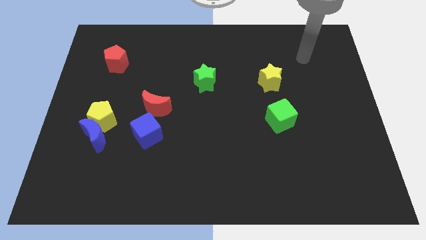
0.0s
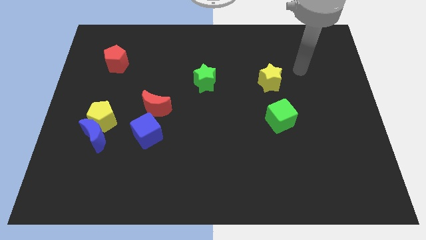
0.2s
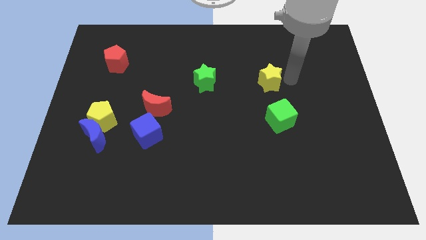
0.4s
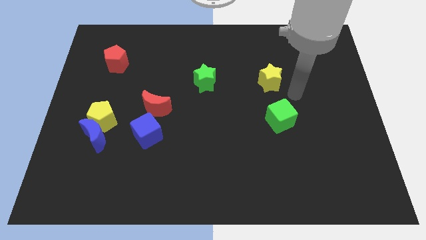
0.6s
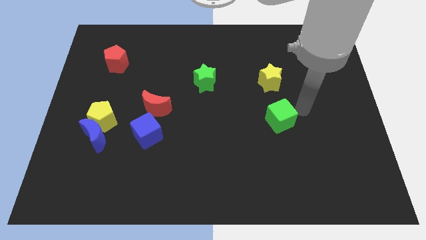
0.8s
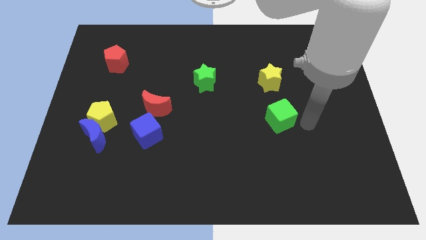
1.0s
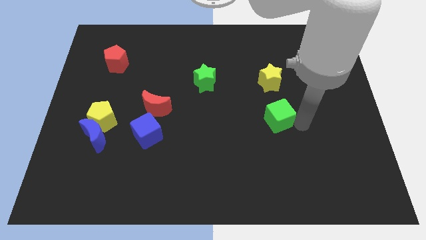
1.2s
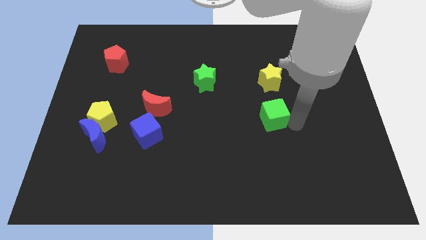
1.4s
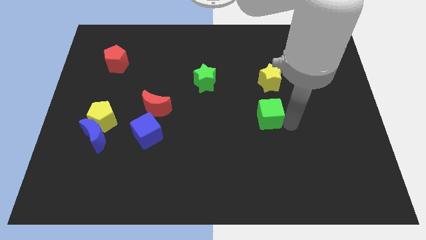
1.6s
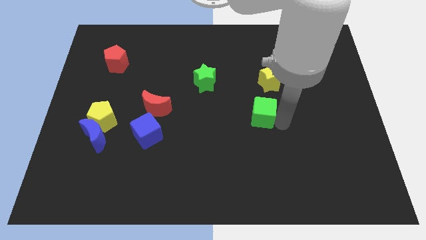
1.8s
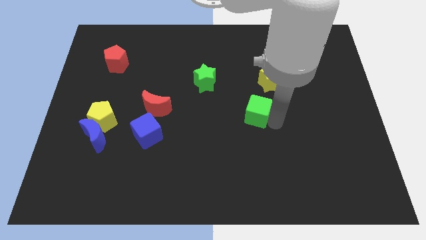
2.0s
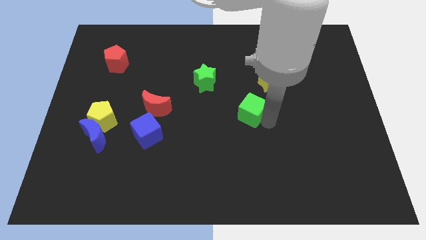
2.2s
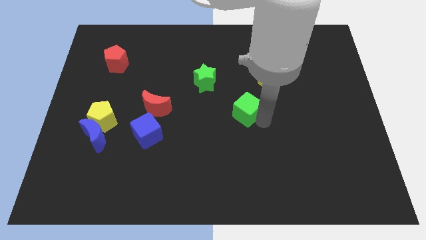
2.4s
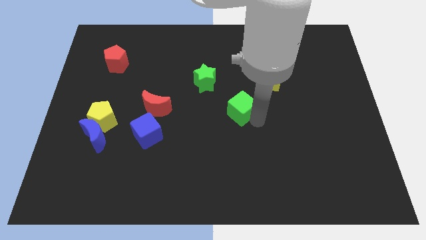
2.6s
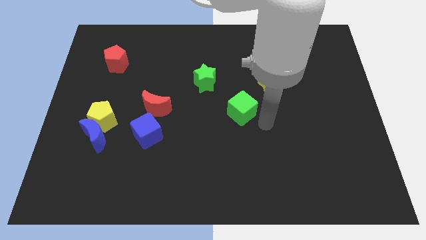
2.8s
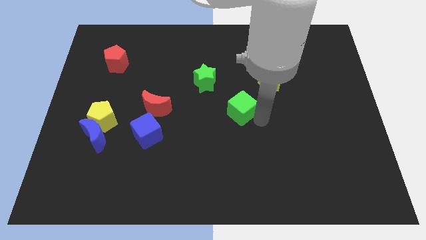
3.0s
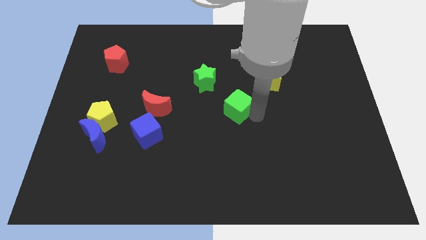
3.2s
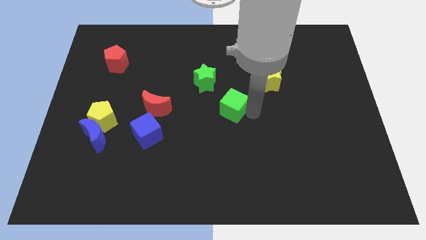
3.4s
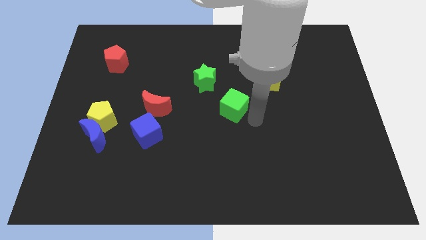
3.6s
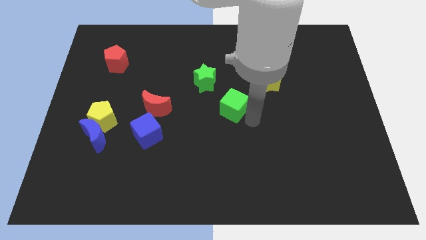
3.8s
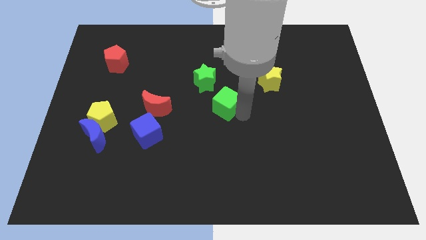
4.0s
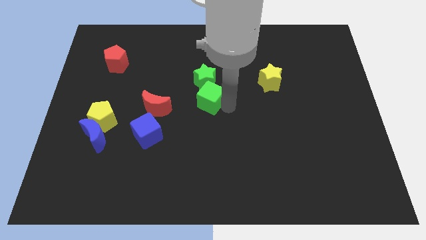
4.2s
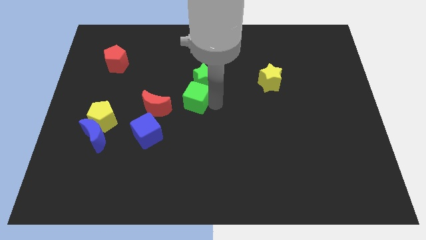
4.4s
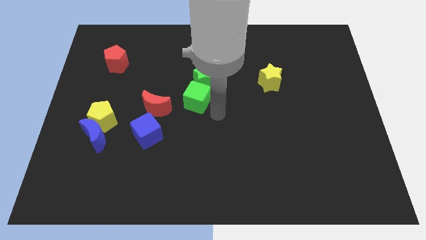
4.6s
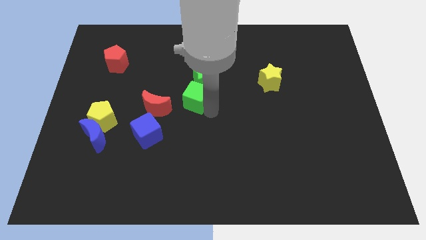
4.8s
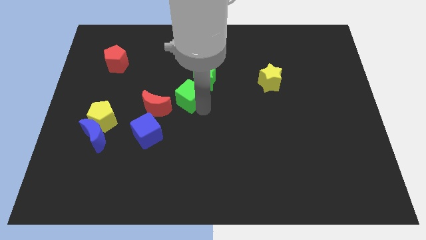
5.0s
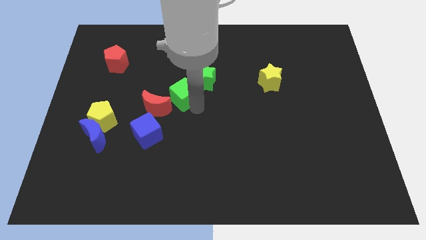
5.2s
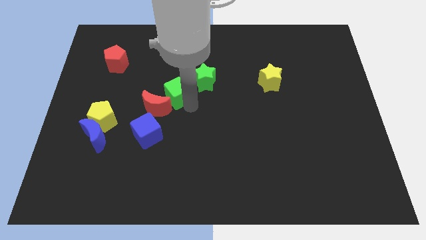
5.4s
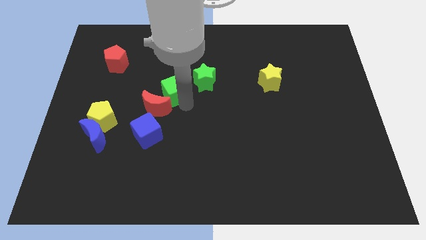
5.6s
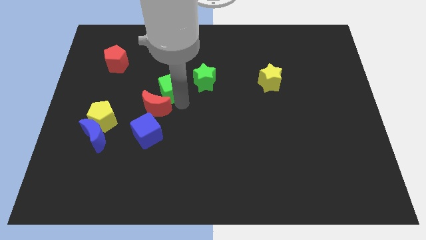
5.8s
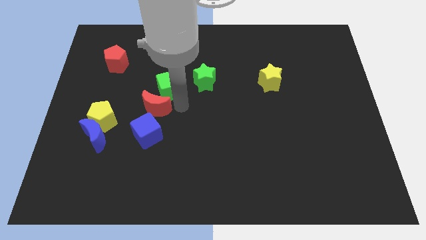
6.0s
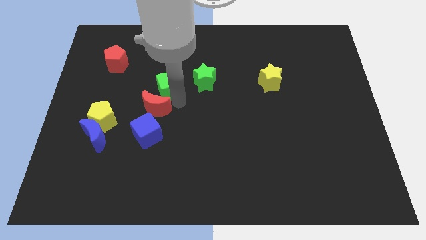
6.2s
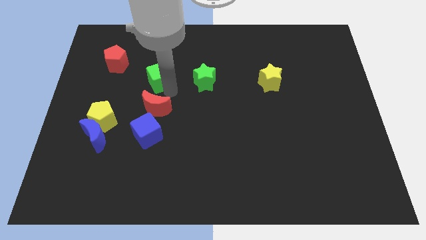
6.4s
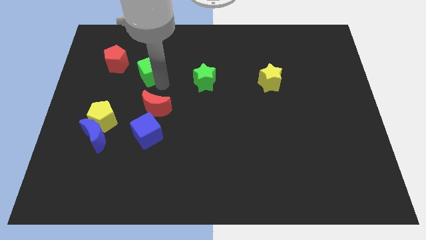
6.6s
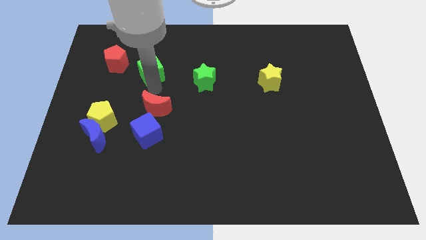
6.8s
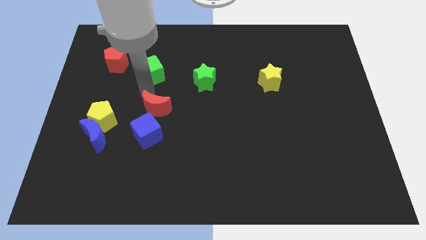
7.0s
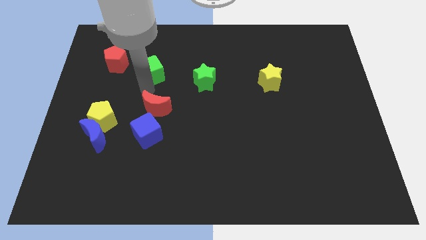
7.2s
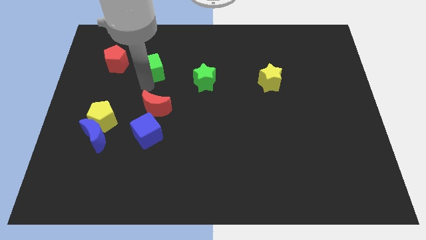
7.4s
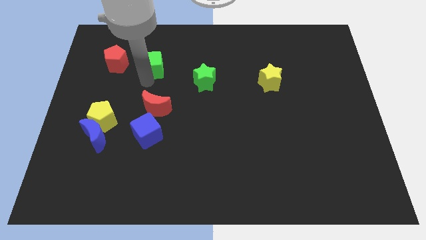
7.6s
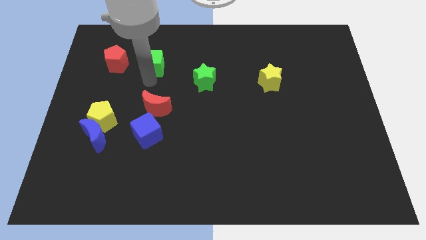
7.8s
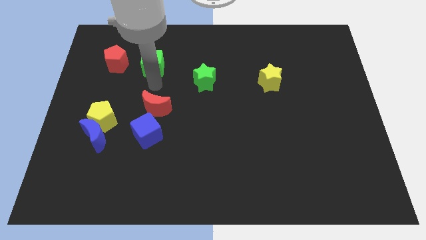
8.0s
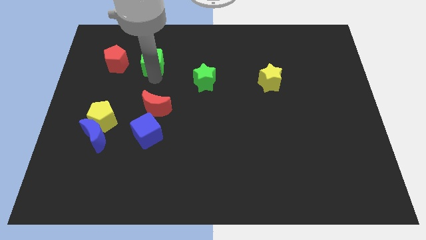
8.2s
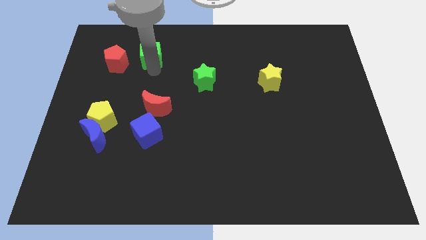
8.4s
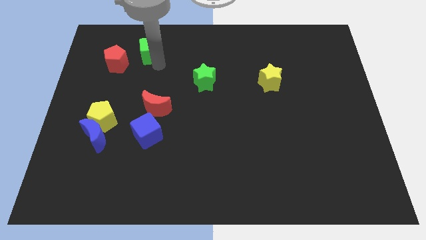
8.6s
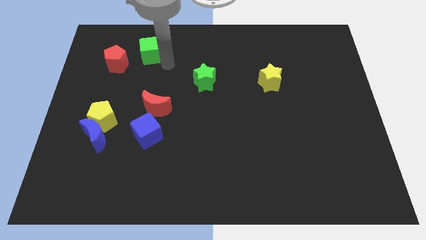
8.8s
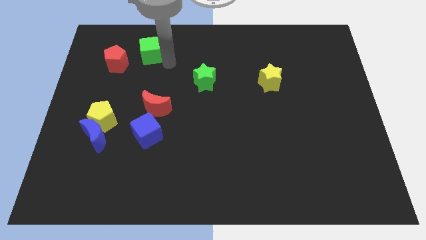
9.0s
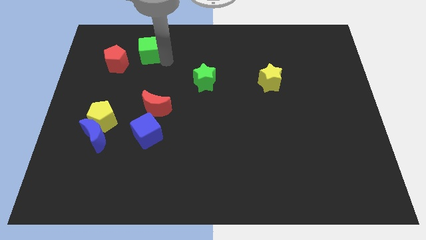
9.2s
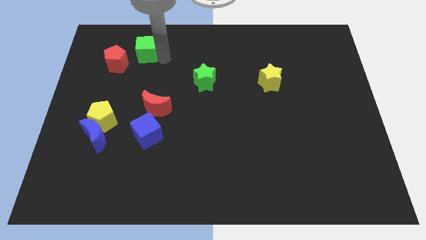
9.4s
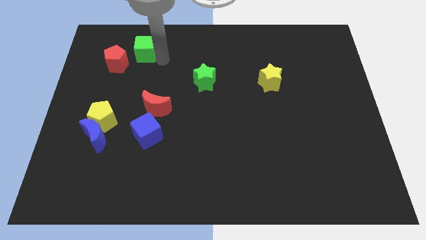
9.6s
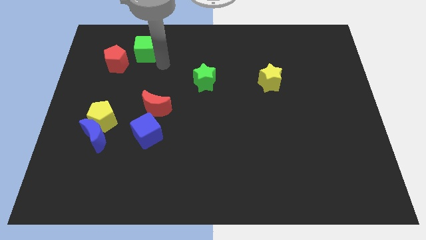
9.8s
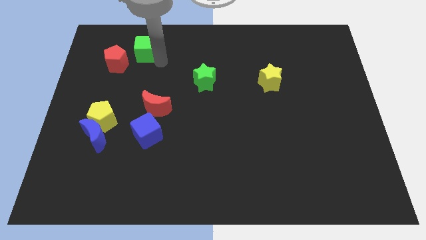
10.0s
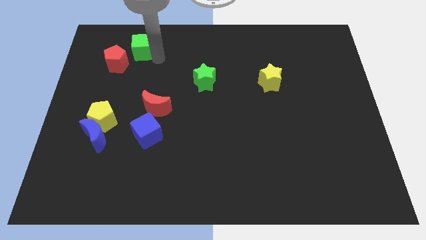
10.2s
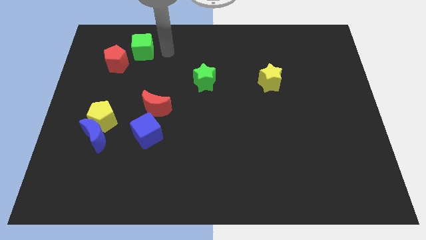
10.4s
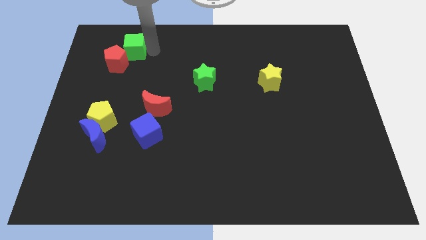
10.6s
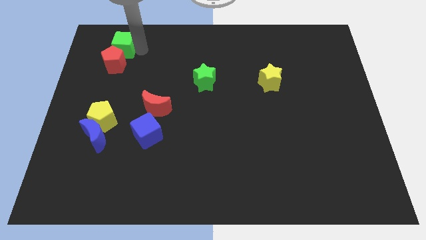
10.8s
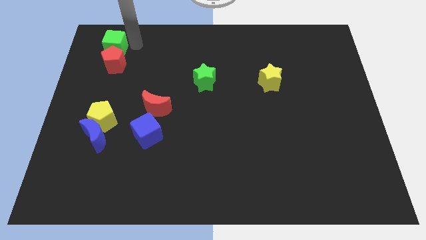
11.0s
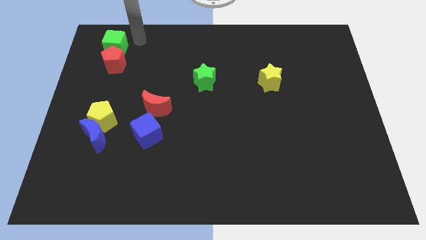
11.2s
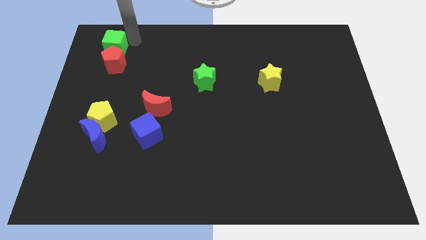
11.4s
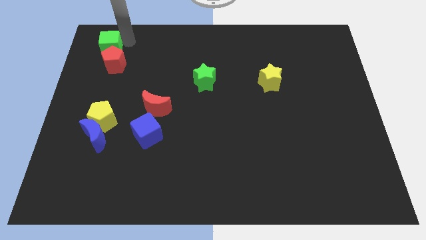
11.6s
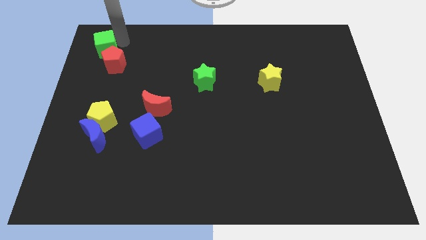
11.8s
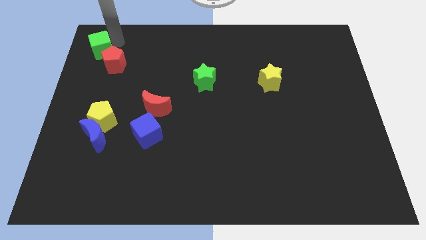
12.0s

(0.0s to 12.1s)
put the green cube to the top left
